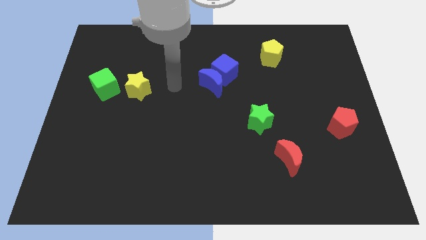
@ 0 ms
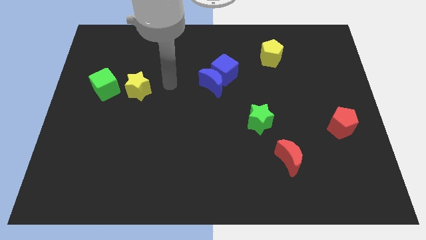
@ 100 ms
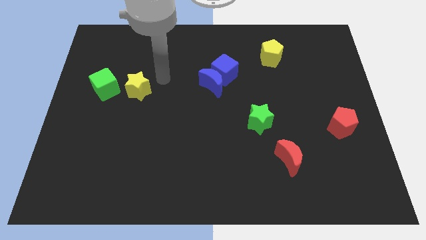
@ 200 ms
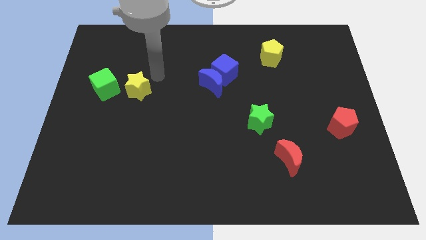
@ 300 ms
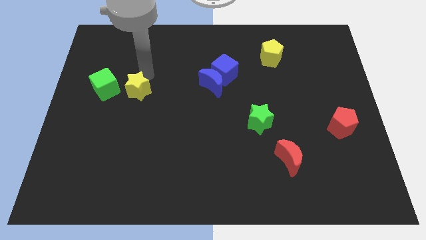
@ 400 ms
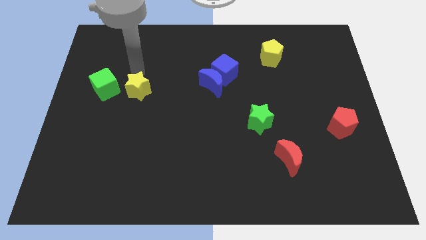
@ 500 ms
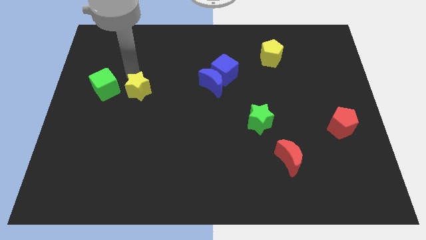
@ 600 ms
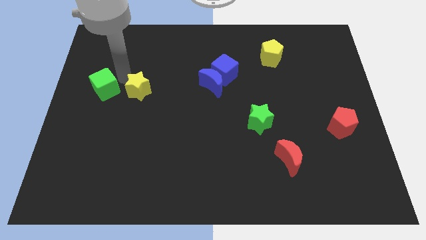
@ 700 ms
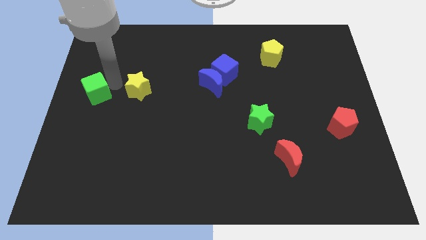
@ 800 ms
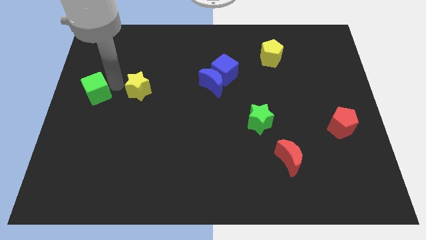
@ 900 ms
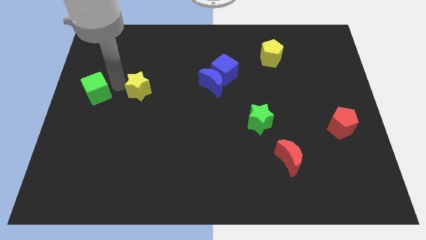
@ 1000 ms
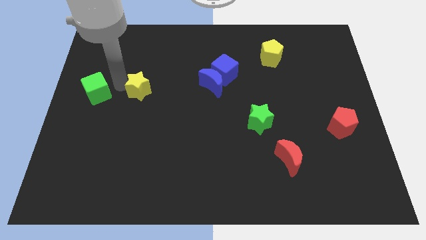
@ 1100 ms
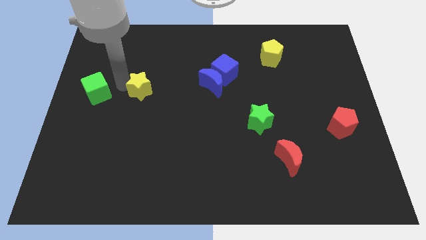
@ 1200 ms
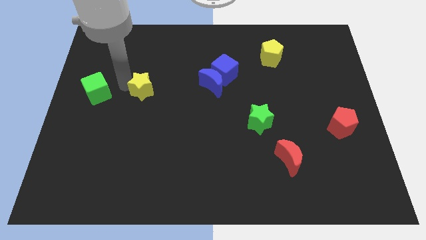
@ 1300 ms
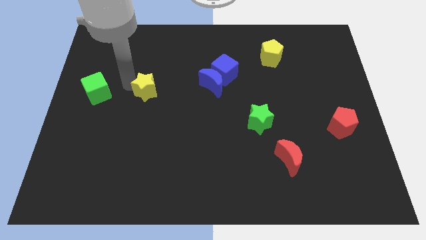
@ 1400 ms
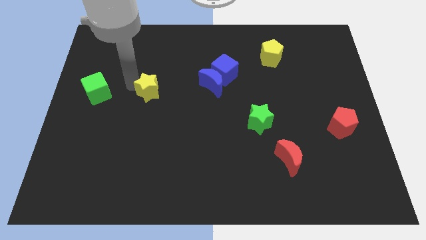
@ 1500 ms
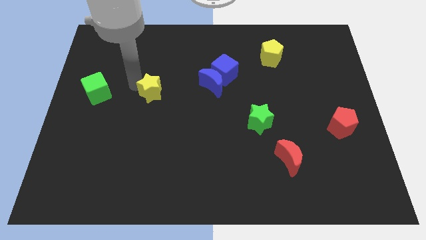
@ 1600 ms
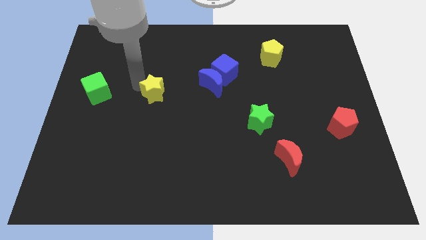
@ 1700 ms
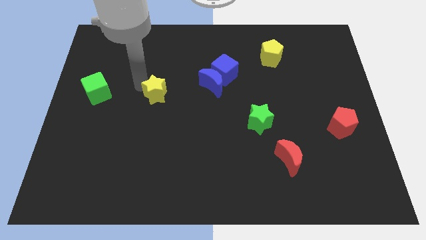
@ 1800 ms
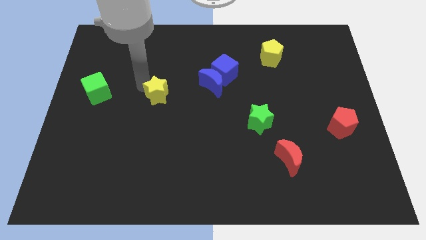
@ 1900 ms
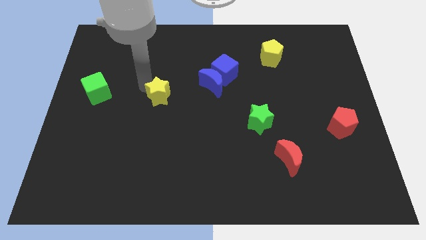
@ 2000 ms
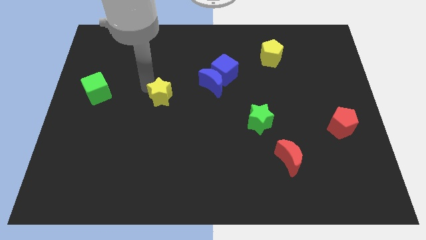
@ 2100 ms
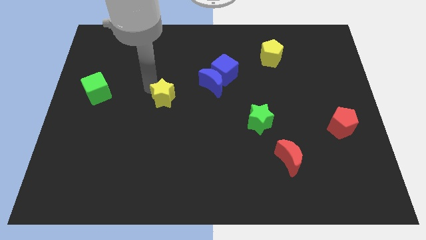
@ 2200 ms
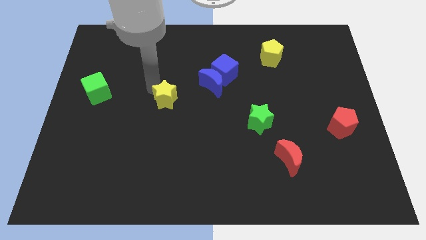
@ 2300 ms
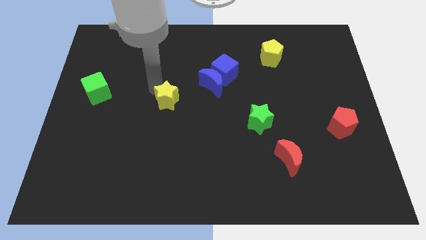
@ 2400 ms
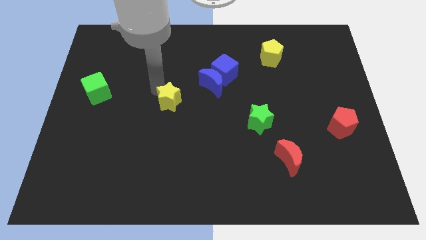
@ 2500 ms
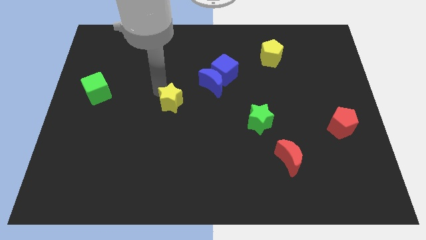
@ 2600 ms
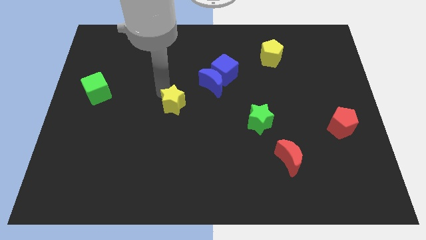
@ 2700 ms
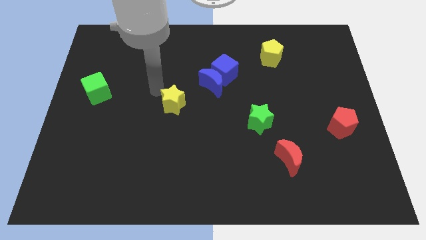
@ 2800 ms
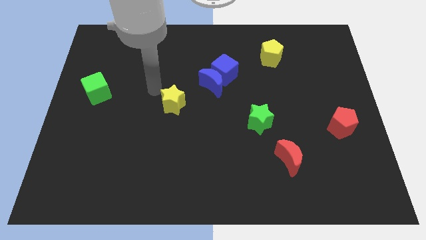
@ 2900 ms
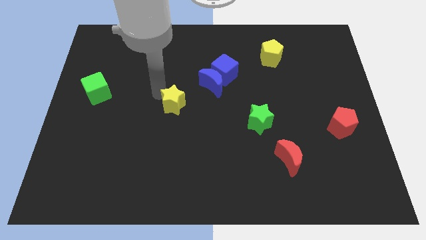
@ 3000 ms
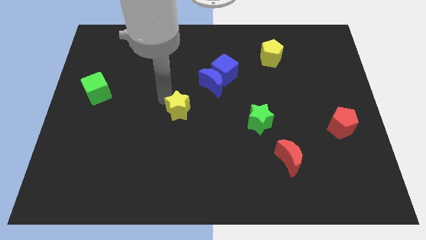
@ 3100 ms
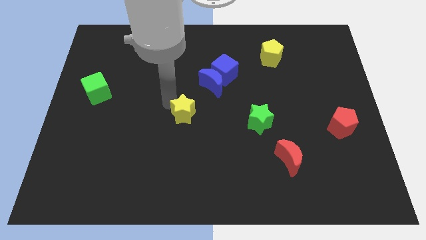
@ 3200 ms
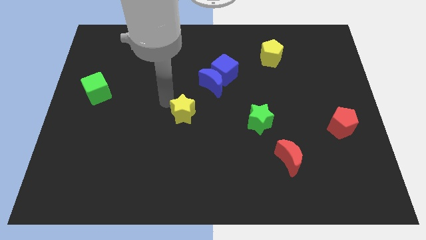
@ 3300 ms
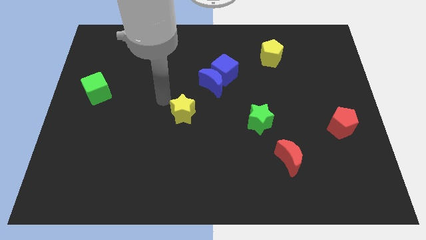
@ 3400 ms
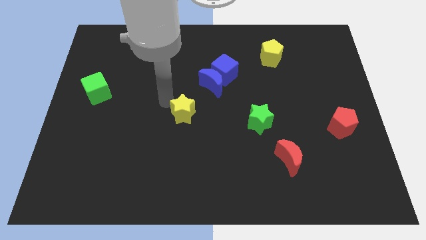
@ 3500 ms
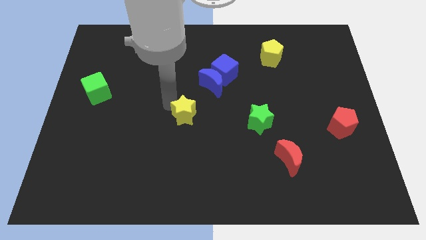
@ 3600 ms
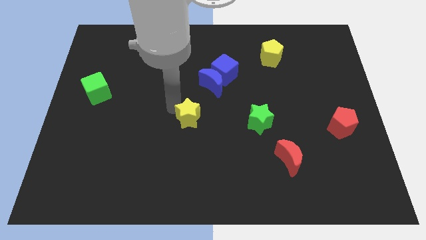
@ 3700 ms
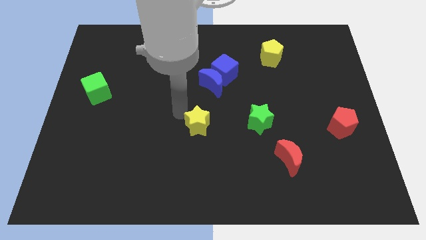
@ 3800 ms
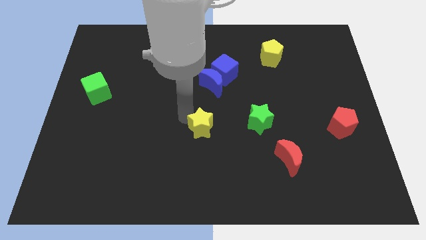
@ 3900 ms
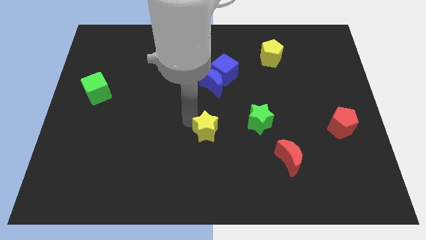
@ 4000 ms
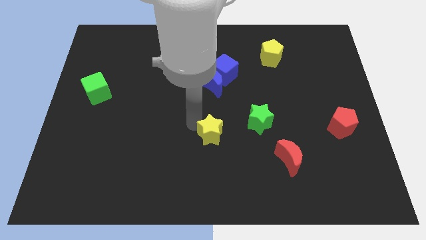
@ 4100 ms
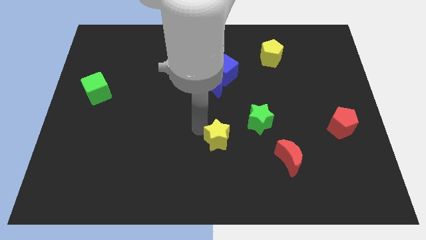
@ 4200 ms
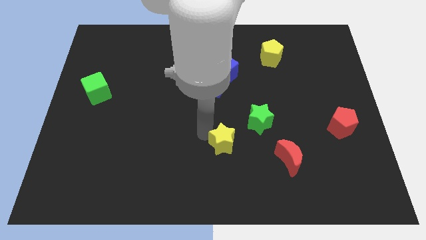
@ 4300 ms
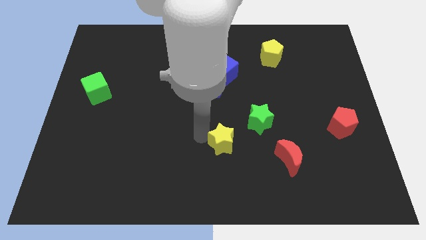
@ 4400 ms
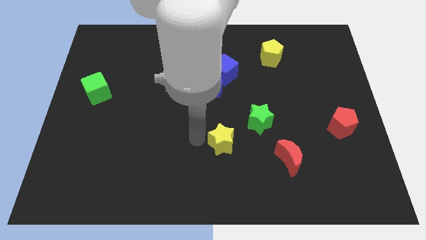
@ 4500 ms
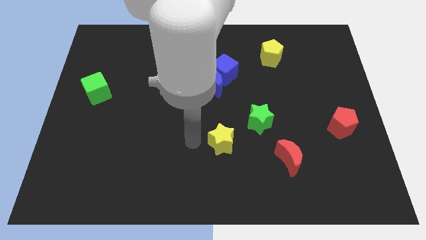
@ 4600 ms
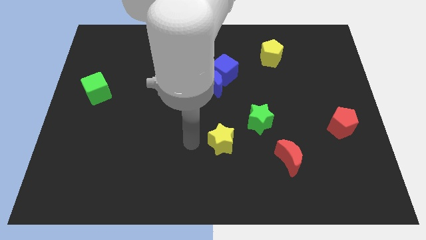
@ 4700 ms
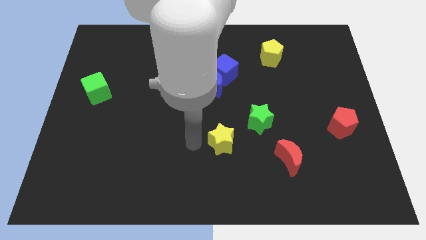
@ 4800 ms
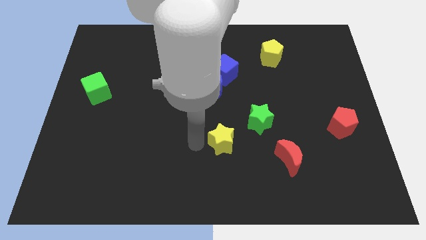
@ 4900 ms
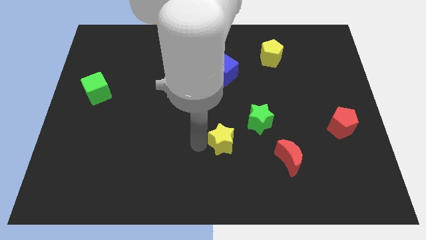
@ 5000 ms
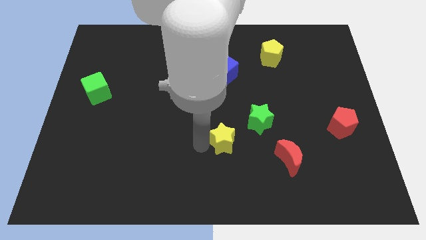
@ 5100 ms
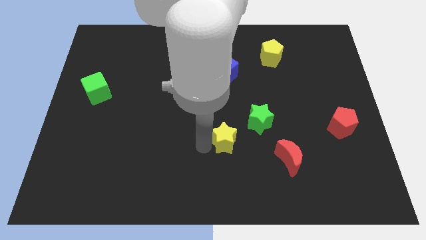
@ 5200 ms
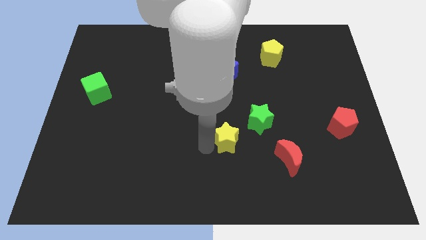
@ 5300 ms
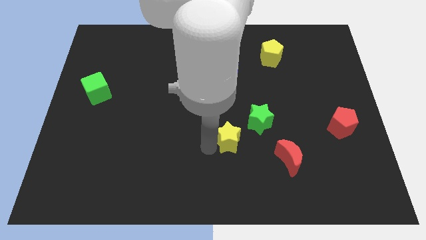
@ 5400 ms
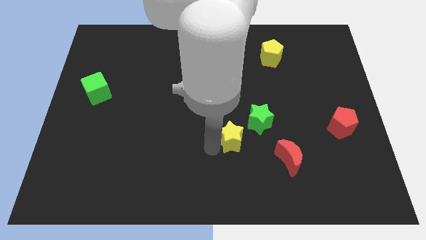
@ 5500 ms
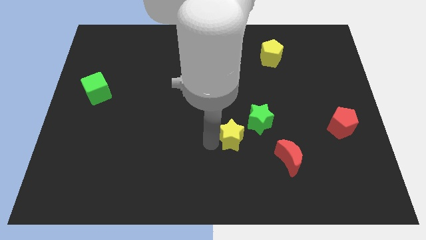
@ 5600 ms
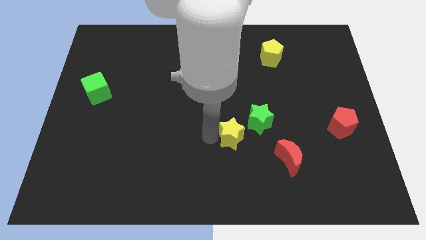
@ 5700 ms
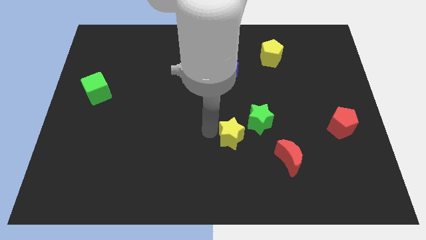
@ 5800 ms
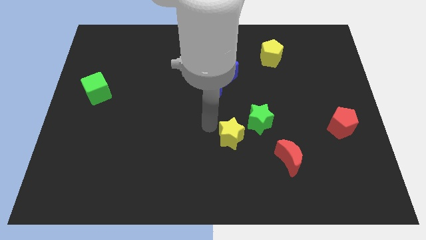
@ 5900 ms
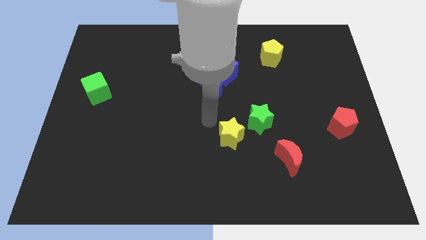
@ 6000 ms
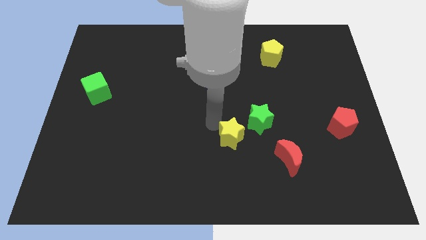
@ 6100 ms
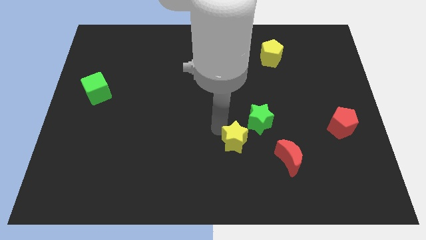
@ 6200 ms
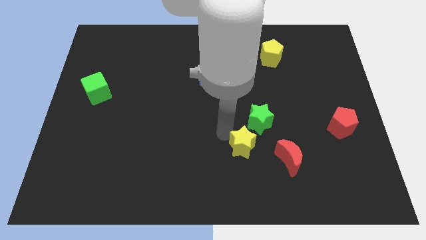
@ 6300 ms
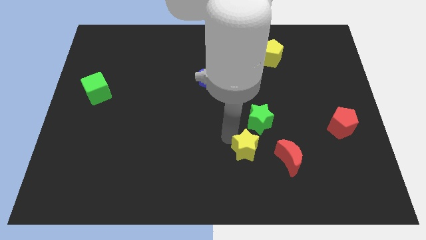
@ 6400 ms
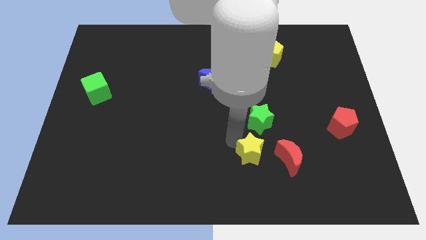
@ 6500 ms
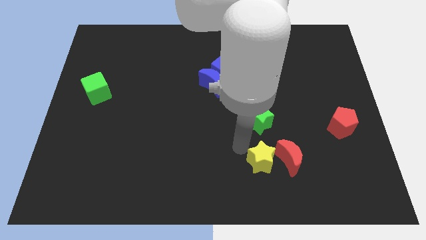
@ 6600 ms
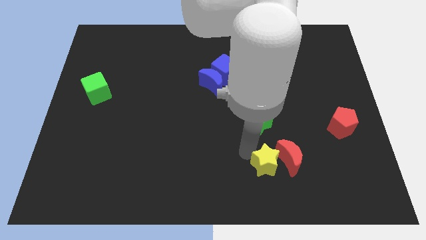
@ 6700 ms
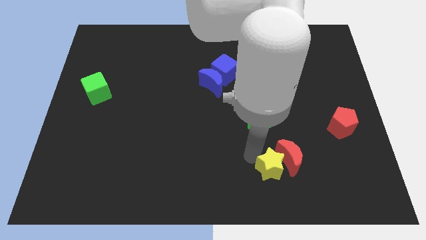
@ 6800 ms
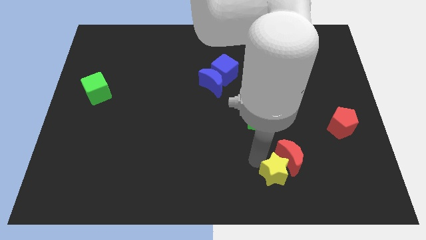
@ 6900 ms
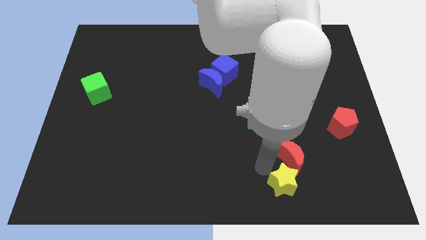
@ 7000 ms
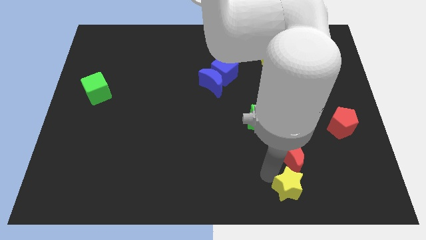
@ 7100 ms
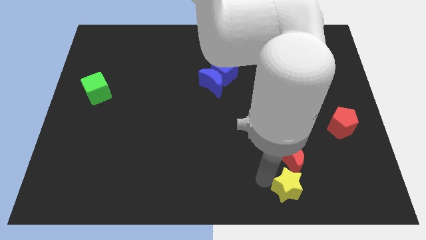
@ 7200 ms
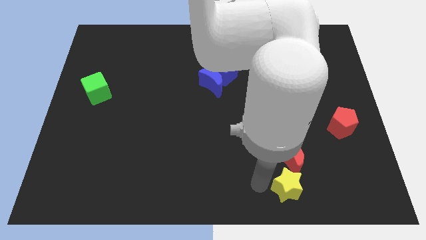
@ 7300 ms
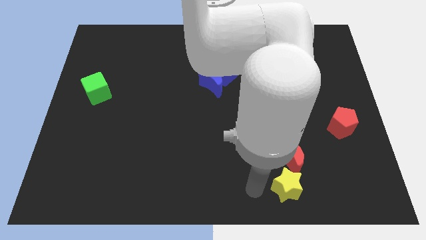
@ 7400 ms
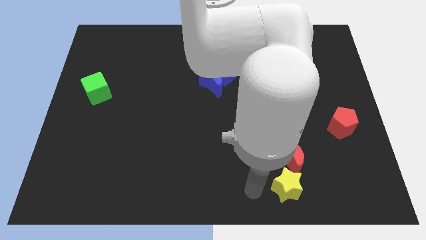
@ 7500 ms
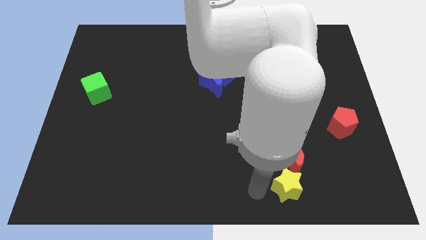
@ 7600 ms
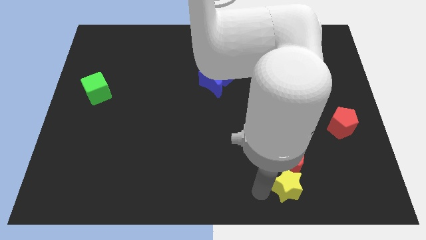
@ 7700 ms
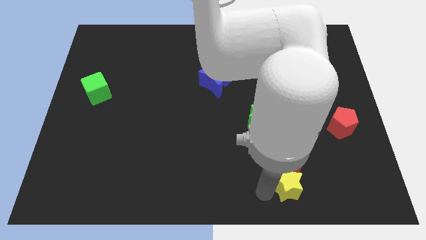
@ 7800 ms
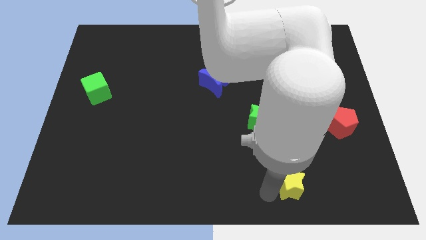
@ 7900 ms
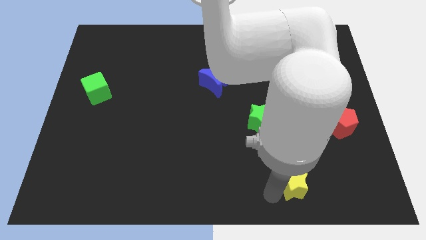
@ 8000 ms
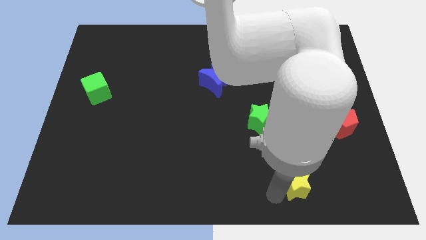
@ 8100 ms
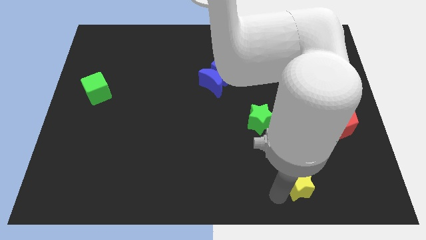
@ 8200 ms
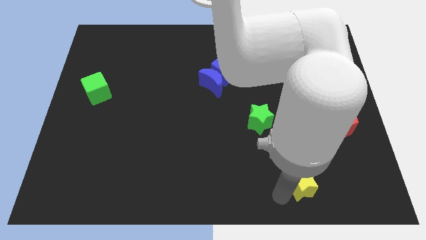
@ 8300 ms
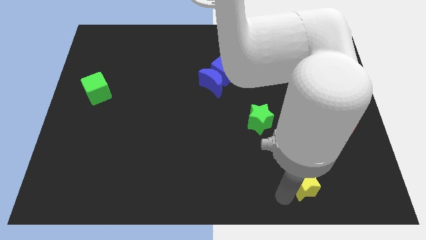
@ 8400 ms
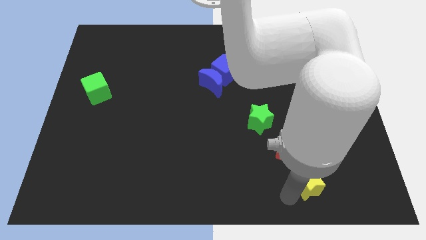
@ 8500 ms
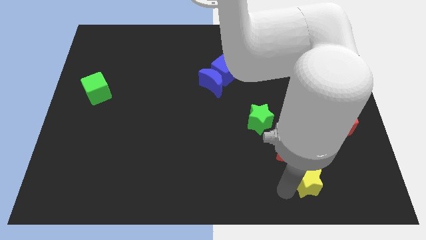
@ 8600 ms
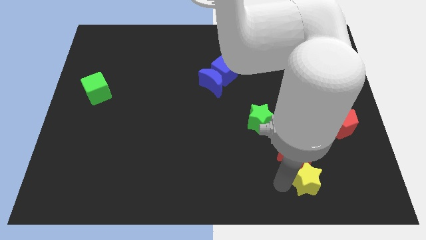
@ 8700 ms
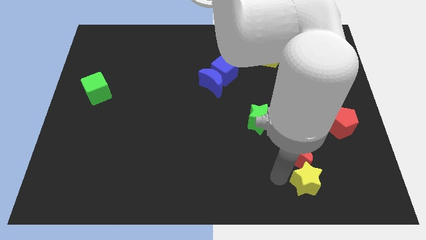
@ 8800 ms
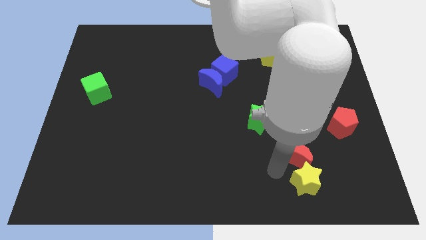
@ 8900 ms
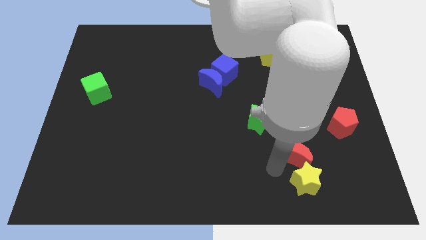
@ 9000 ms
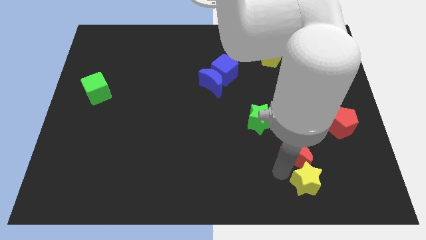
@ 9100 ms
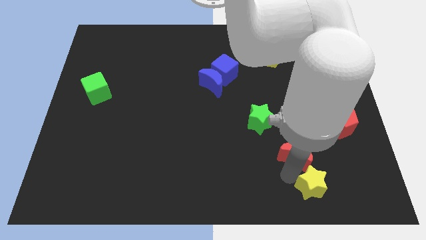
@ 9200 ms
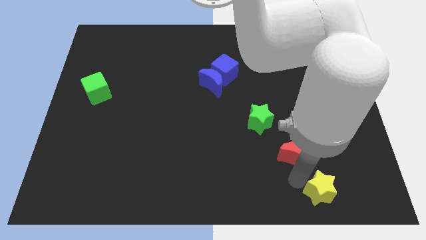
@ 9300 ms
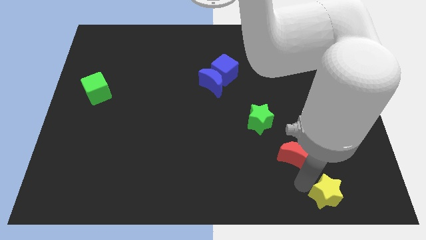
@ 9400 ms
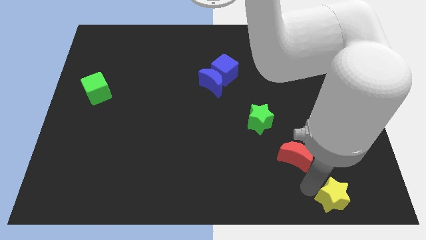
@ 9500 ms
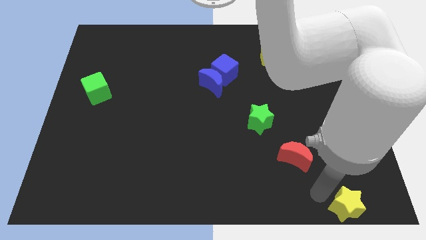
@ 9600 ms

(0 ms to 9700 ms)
push the yellow star to the lower right corner
